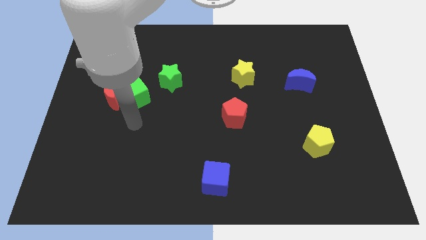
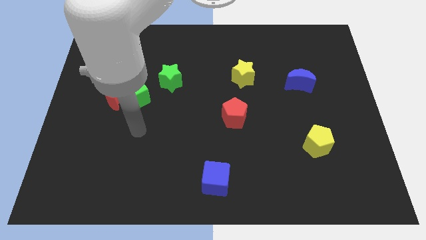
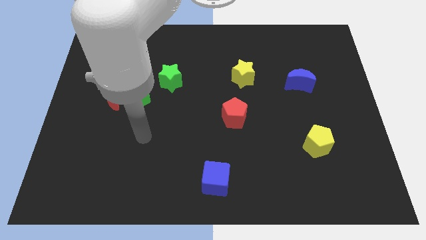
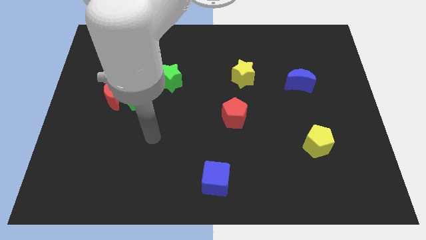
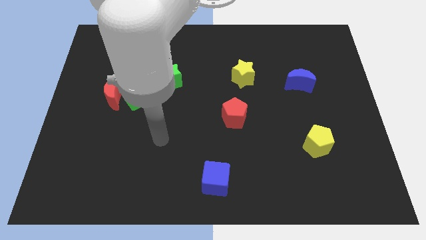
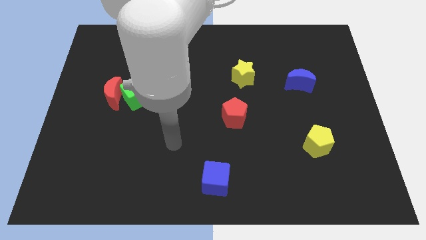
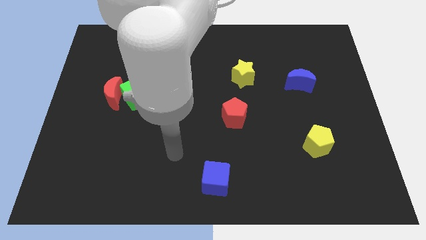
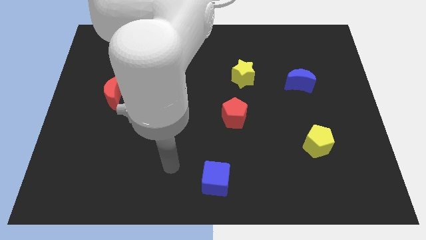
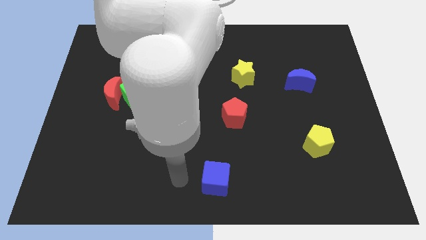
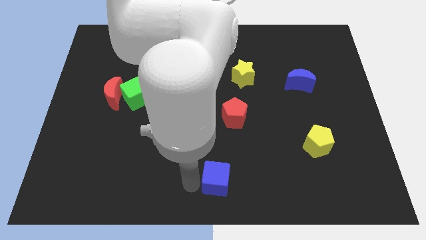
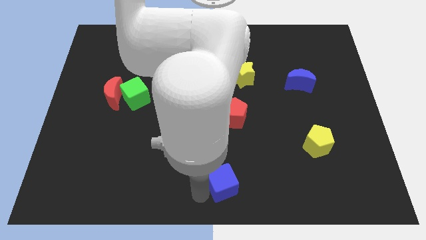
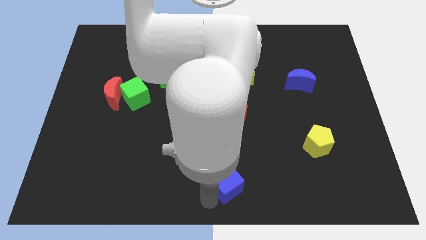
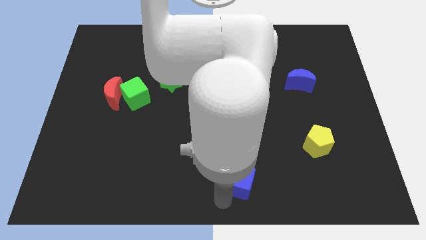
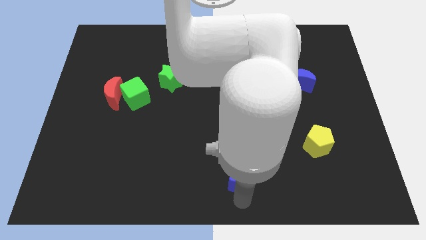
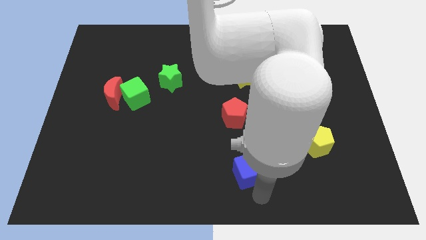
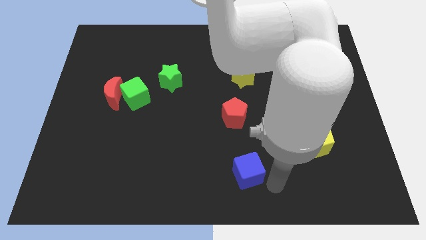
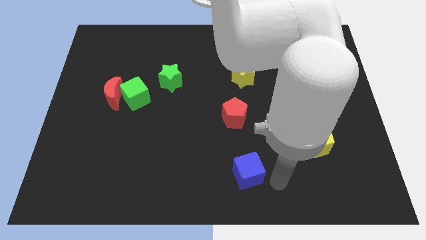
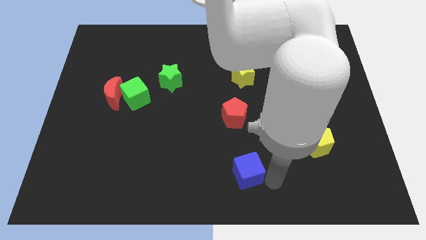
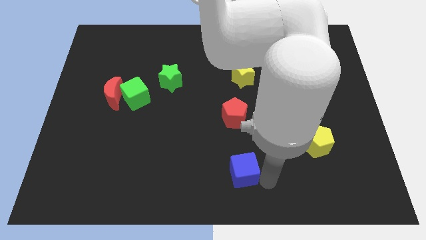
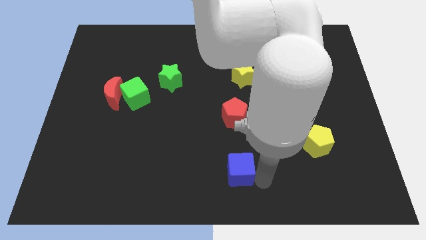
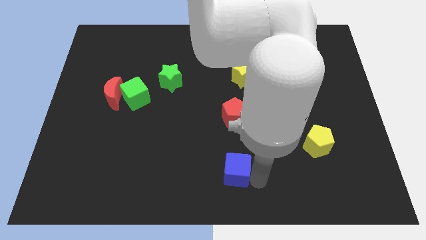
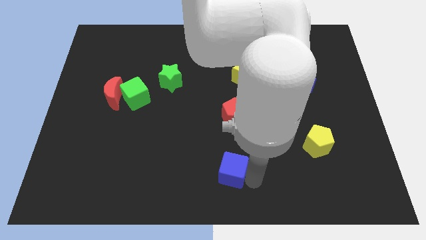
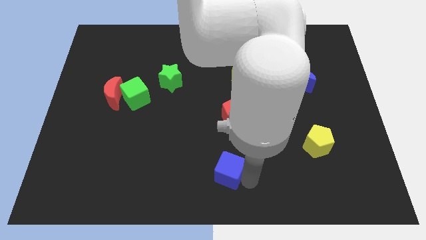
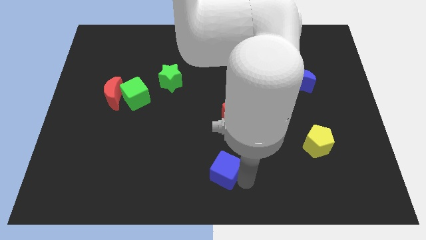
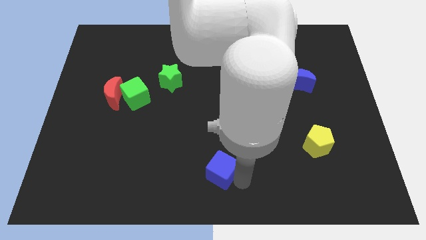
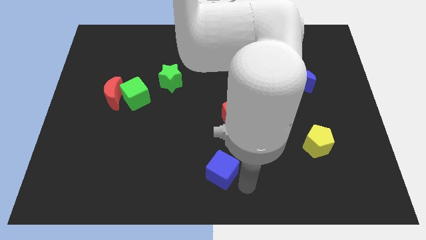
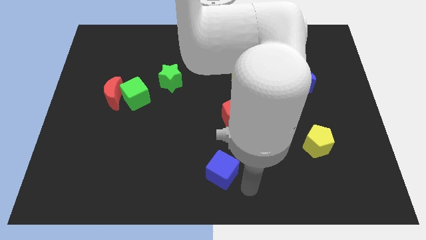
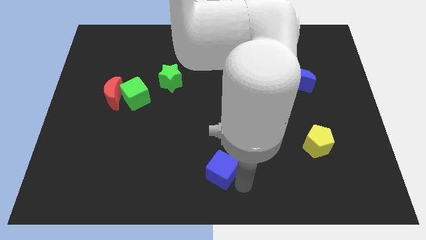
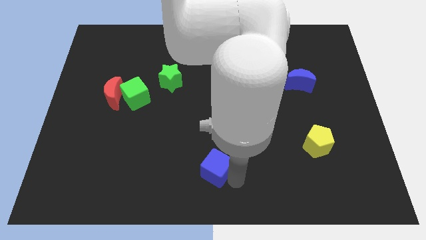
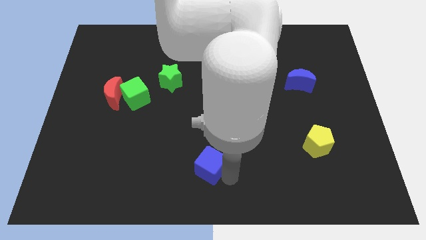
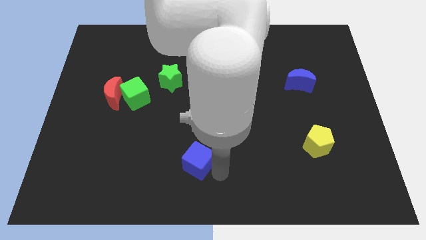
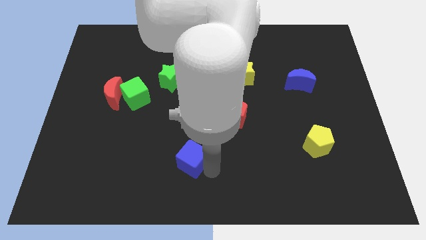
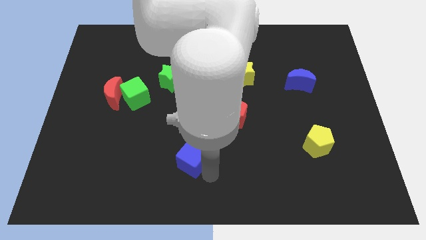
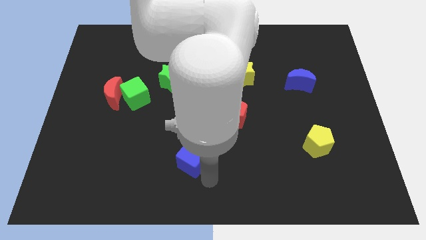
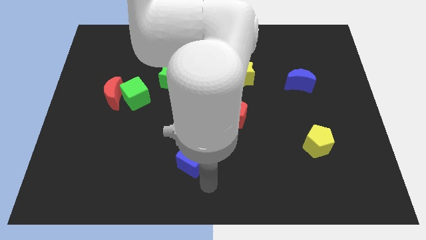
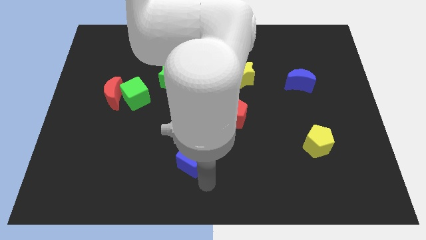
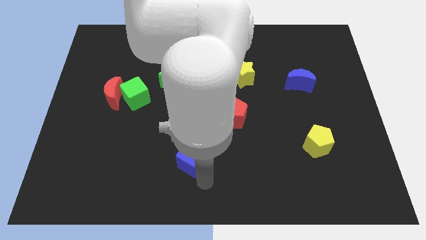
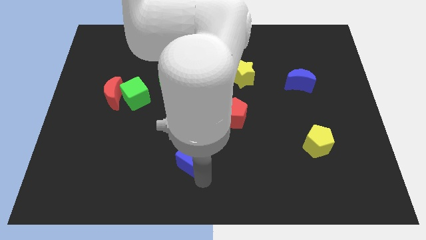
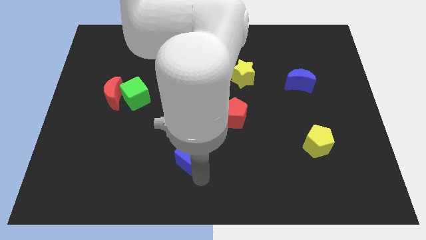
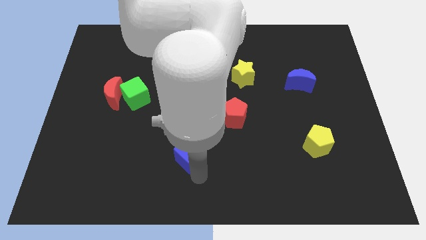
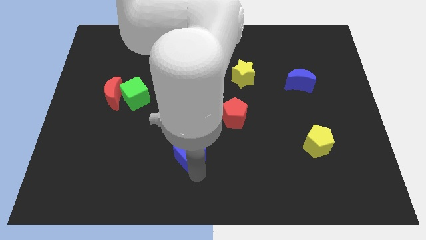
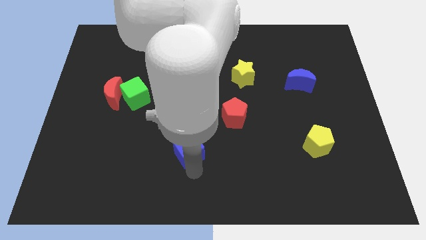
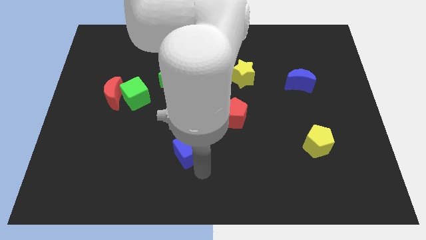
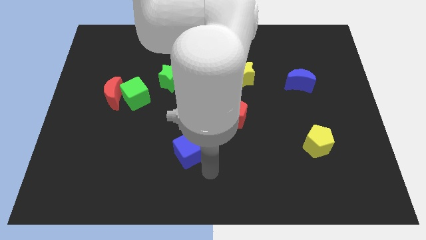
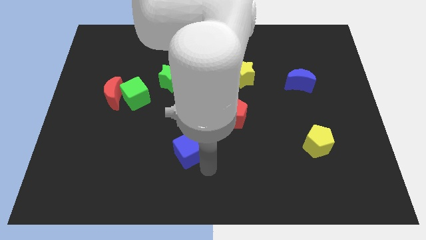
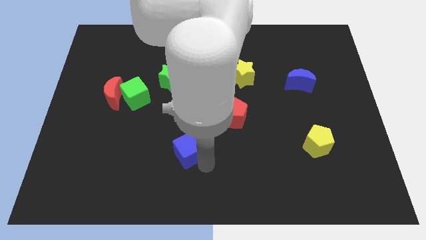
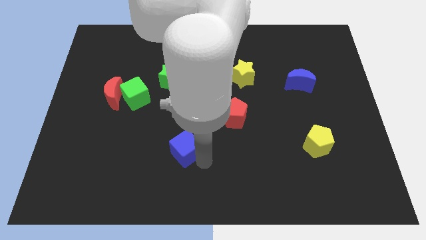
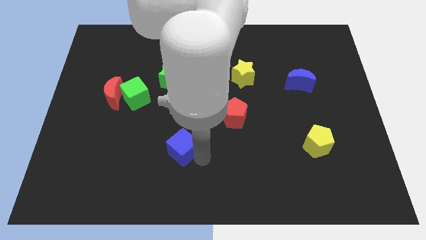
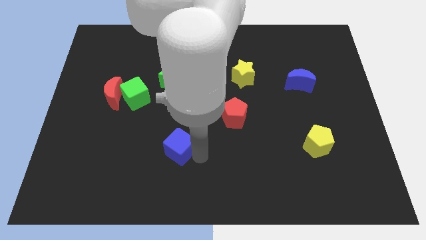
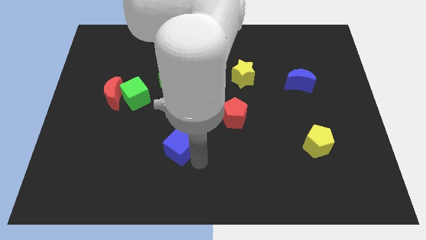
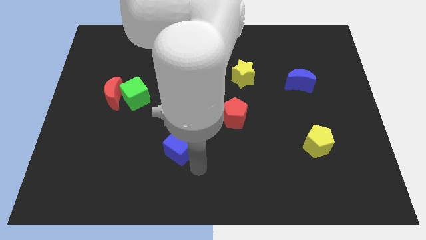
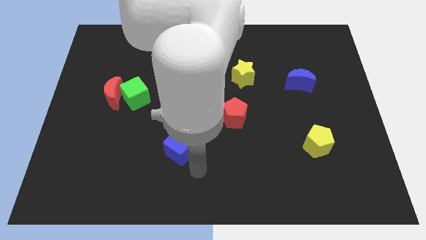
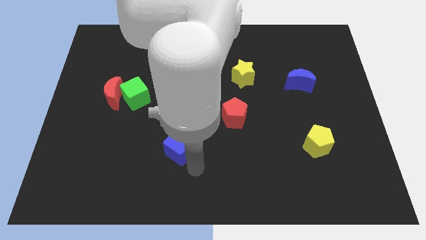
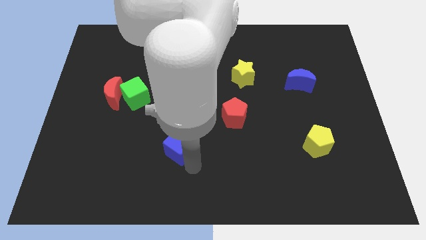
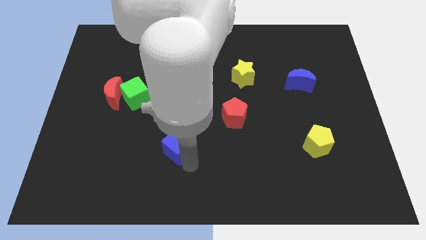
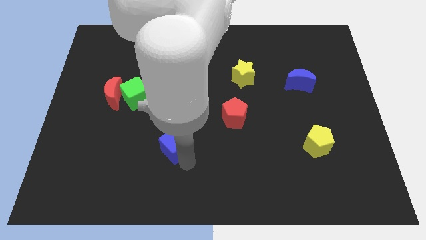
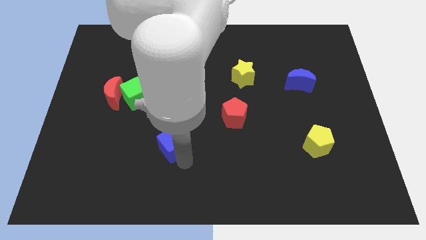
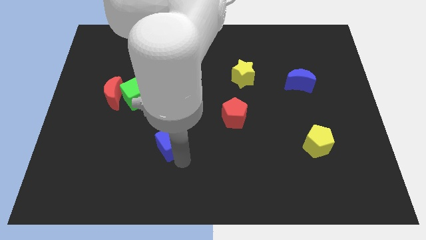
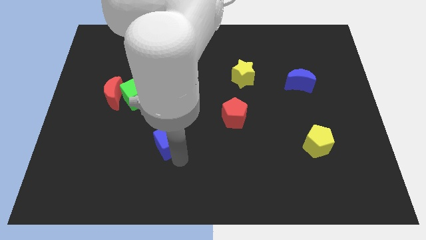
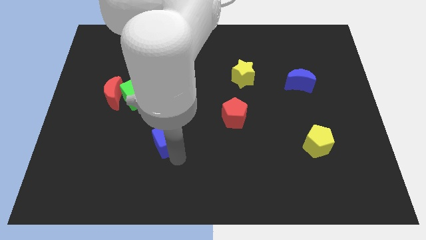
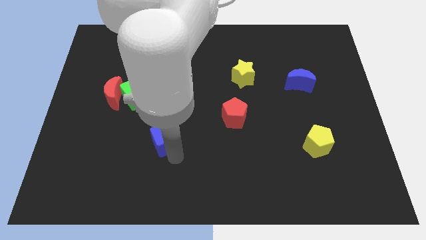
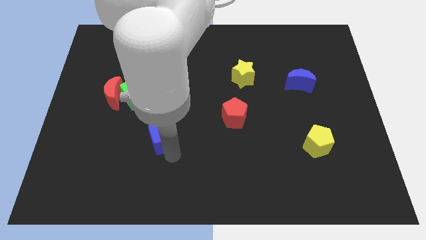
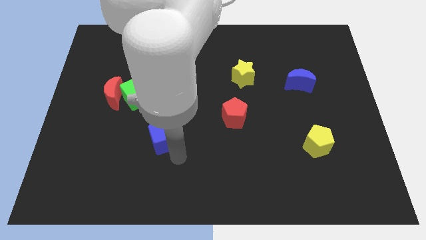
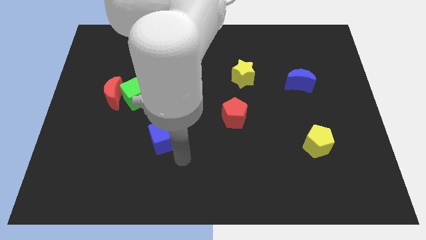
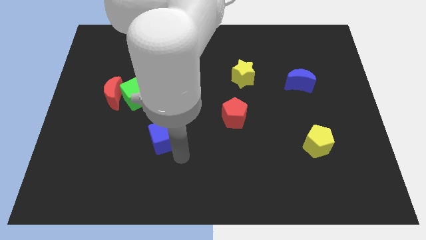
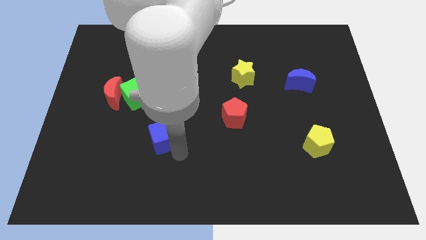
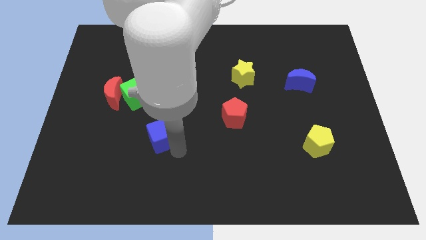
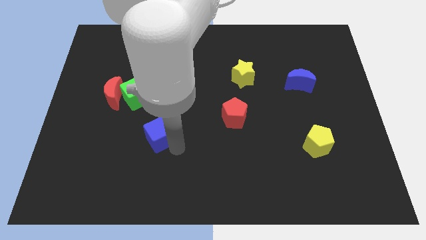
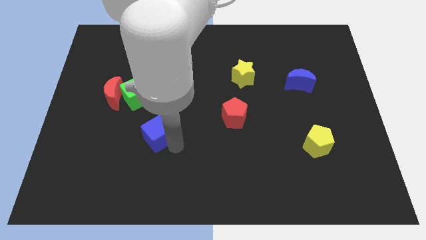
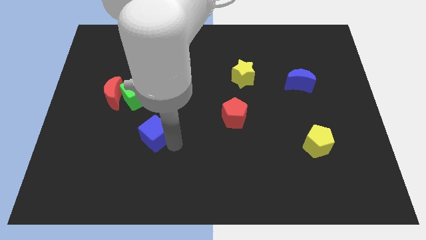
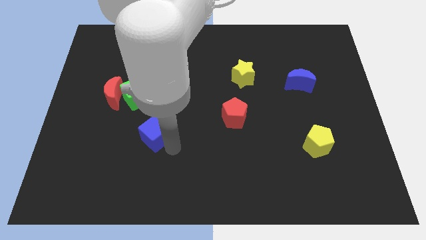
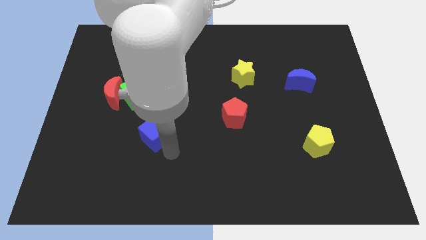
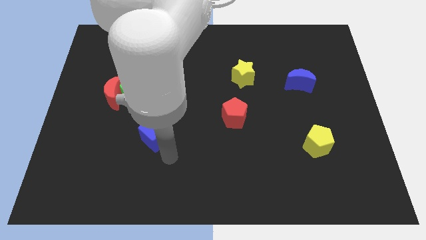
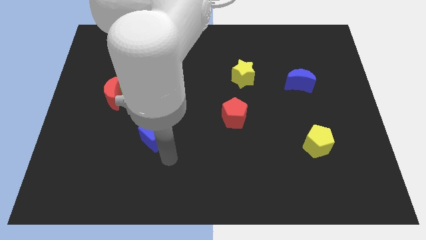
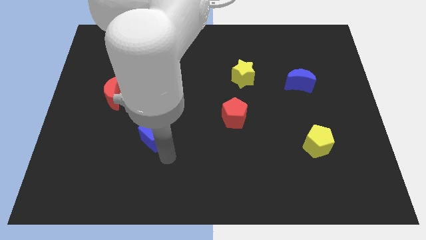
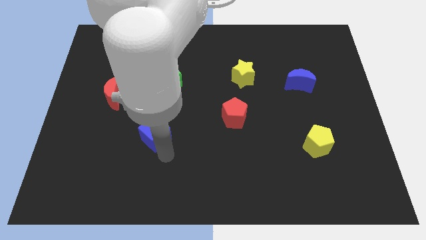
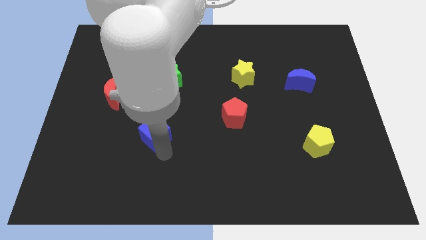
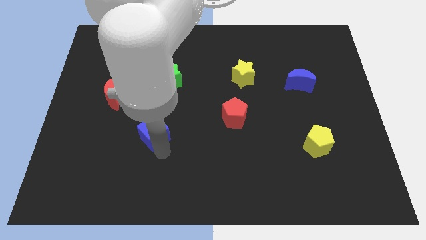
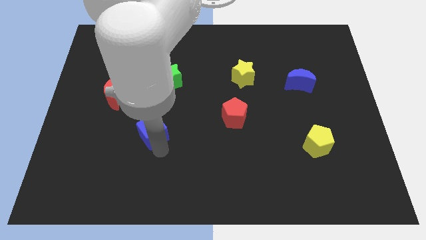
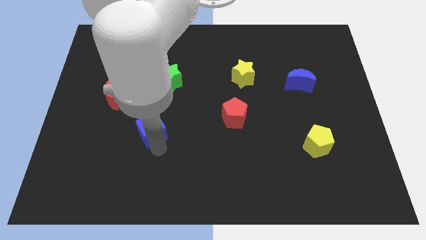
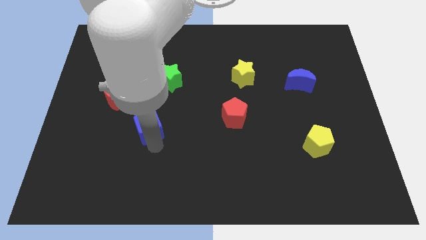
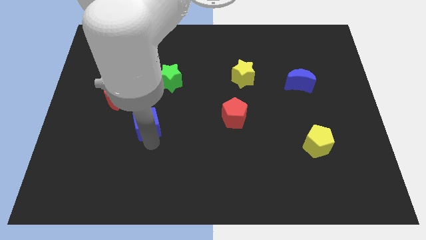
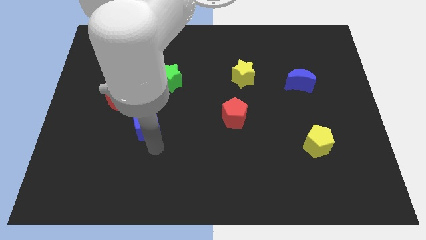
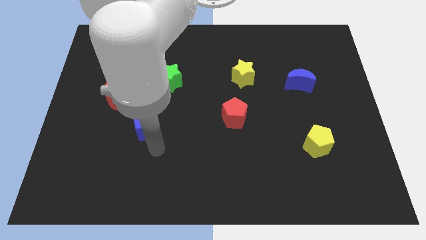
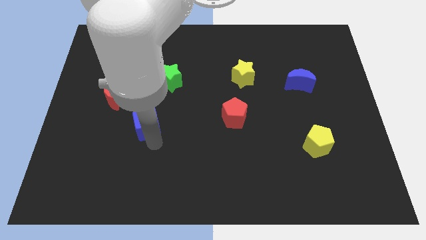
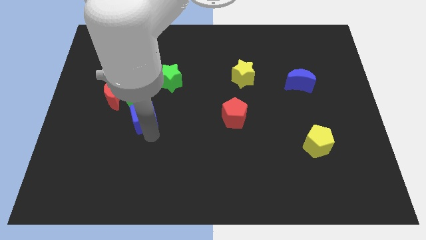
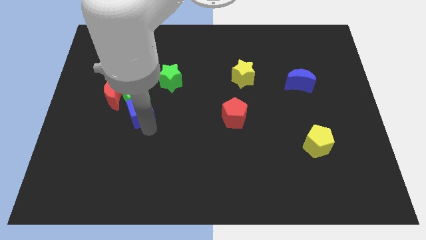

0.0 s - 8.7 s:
slide the blue cube towards the green cube
